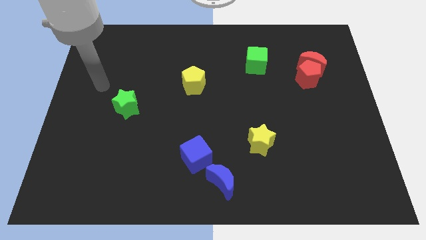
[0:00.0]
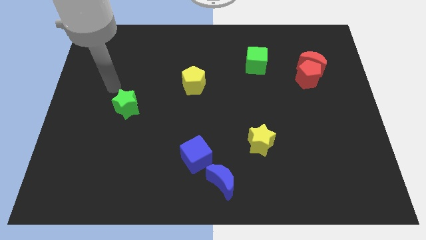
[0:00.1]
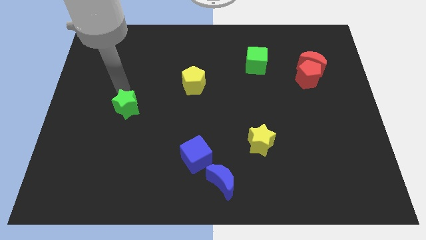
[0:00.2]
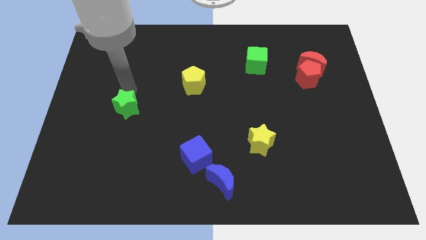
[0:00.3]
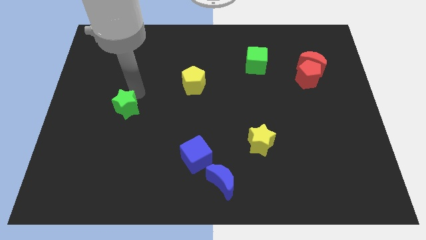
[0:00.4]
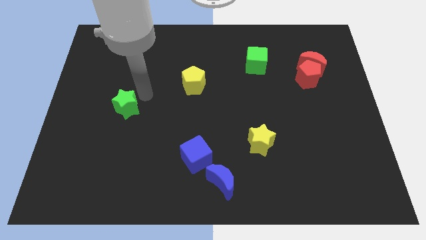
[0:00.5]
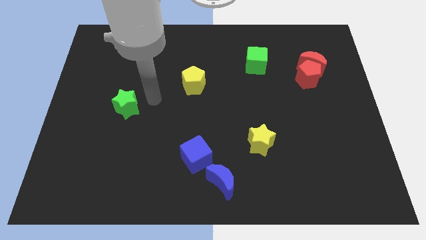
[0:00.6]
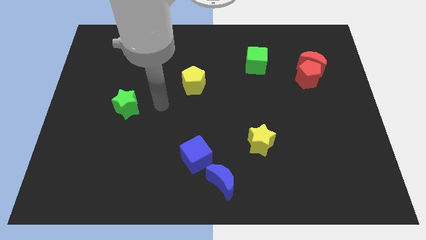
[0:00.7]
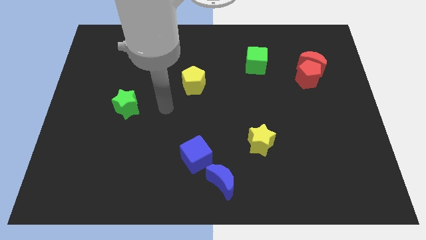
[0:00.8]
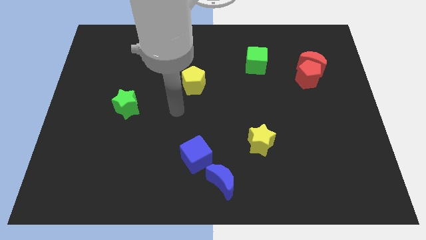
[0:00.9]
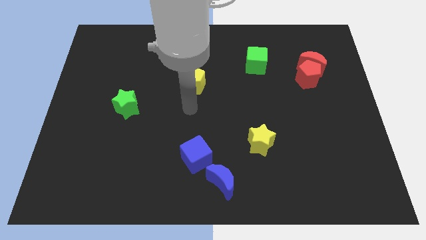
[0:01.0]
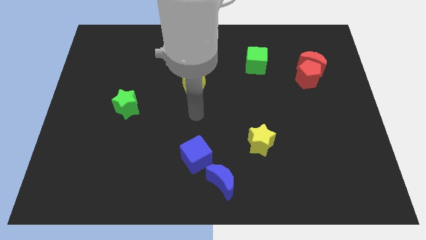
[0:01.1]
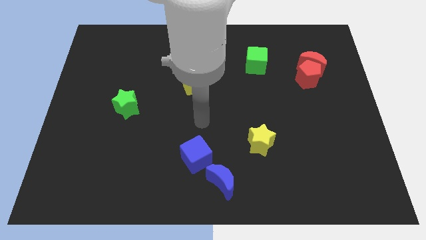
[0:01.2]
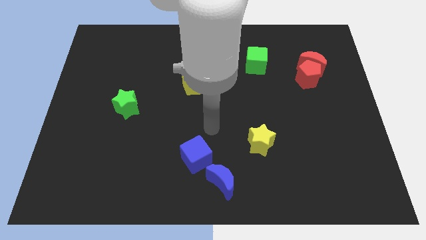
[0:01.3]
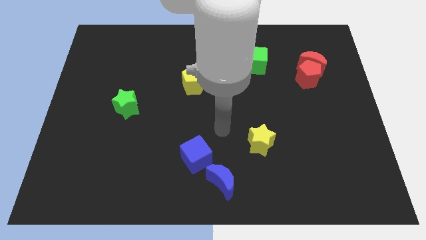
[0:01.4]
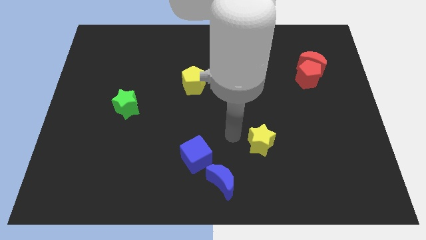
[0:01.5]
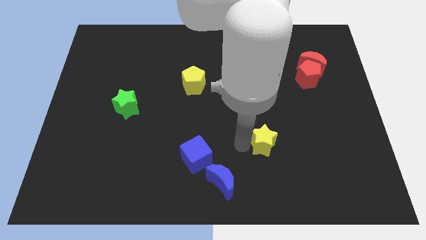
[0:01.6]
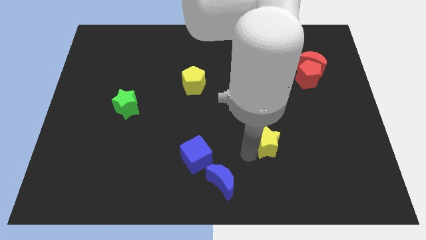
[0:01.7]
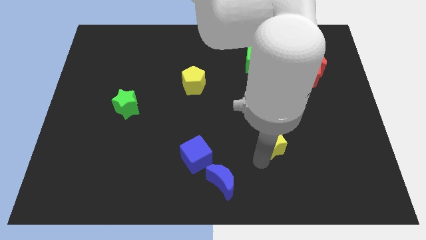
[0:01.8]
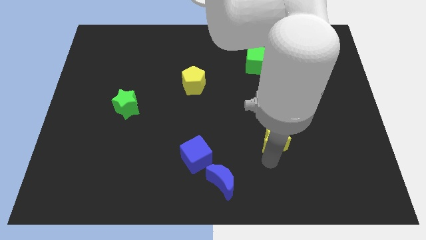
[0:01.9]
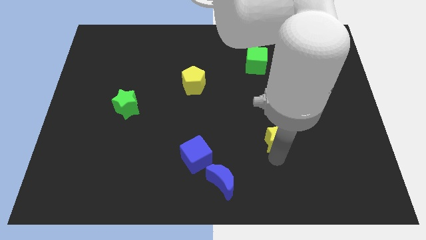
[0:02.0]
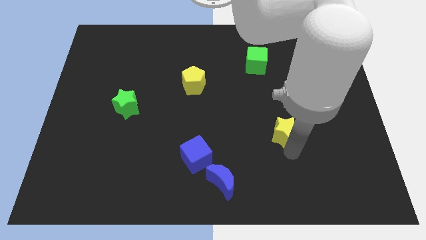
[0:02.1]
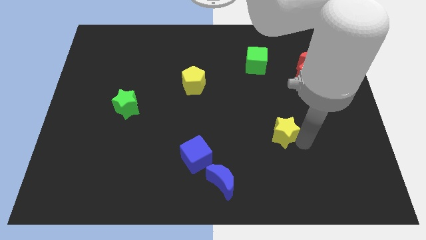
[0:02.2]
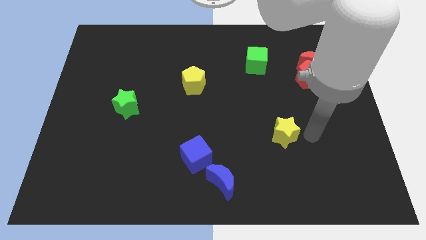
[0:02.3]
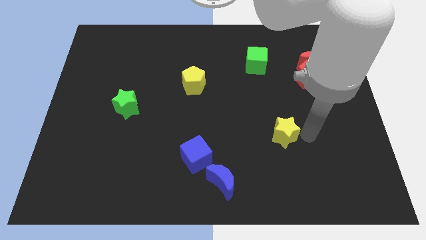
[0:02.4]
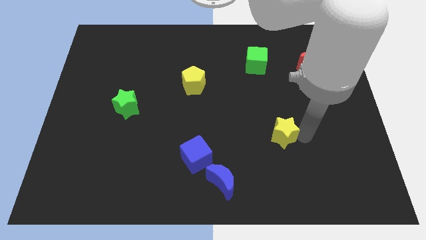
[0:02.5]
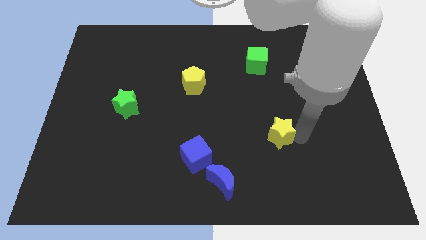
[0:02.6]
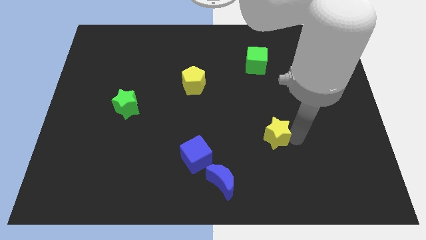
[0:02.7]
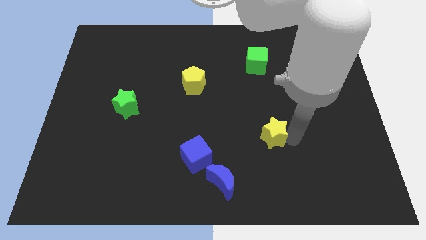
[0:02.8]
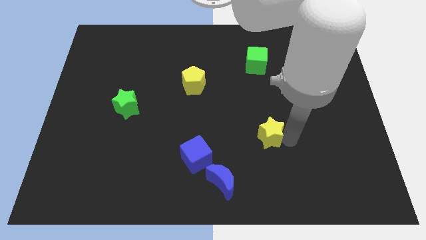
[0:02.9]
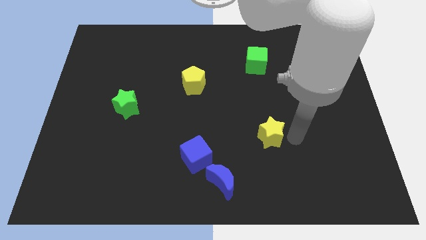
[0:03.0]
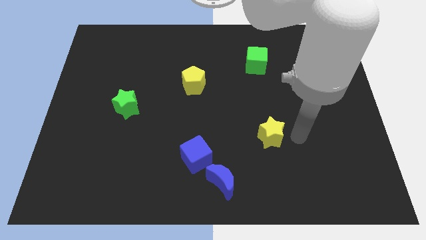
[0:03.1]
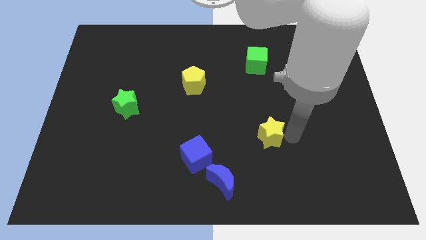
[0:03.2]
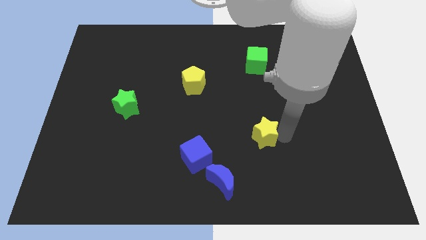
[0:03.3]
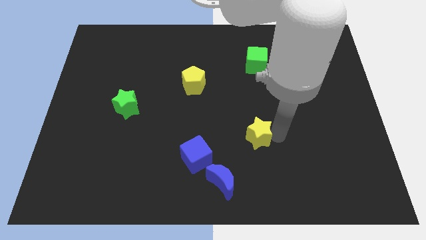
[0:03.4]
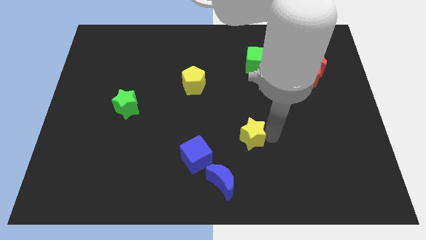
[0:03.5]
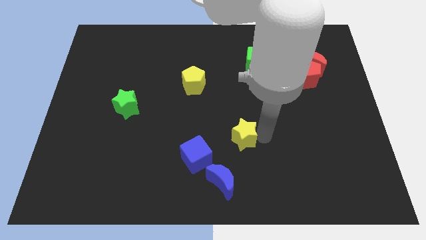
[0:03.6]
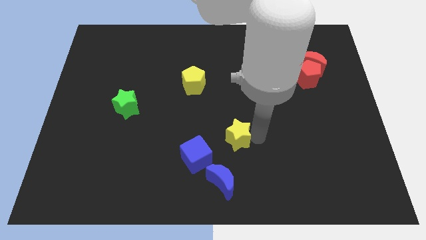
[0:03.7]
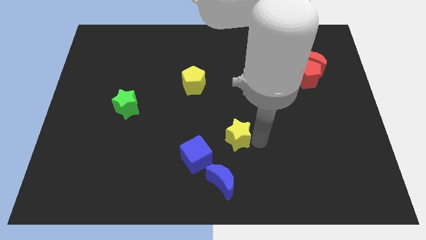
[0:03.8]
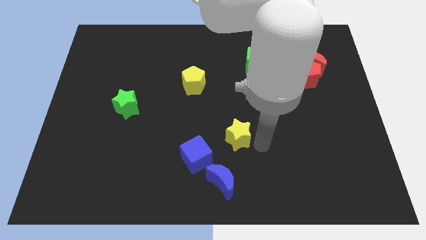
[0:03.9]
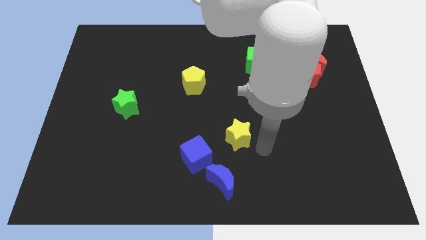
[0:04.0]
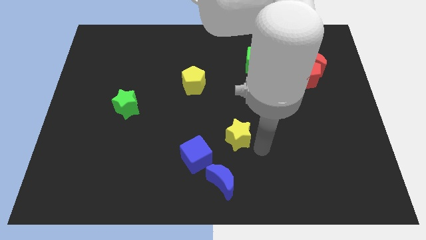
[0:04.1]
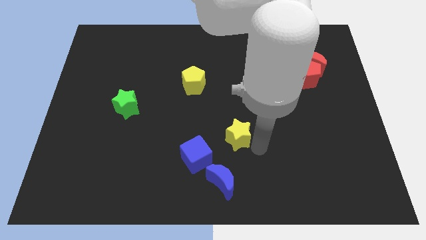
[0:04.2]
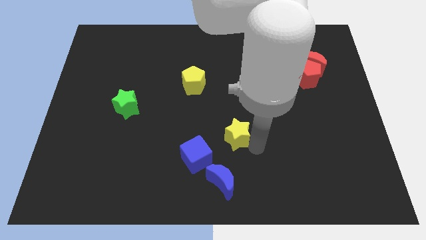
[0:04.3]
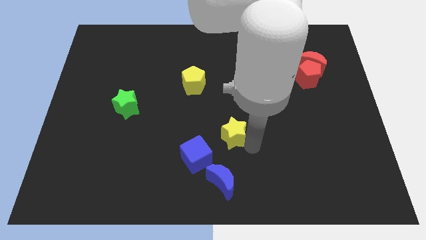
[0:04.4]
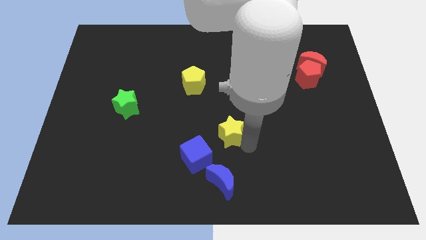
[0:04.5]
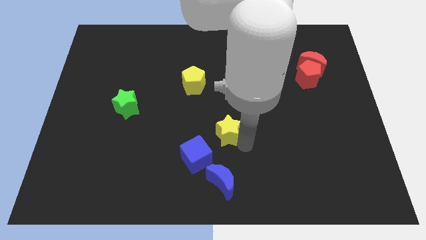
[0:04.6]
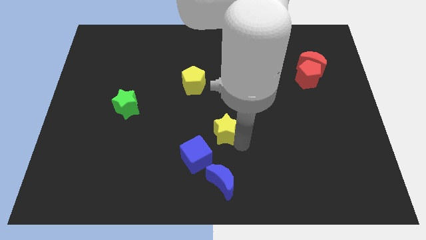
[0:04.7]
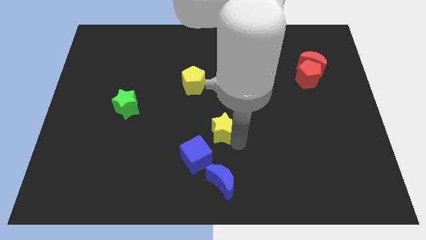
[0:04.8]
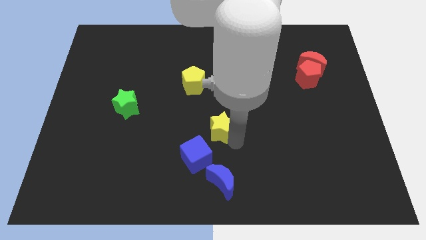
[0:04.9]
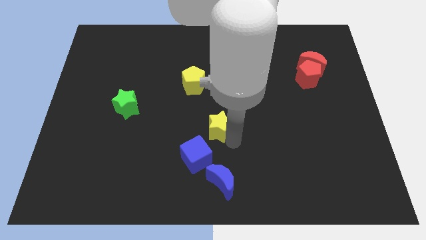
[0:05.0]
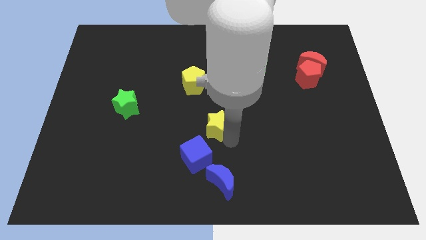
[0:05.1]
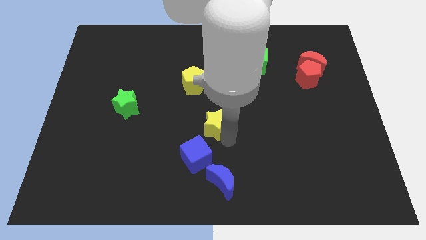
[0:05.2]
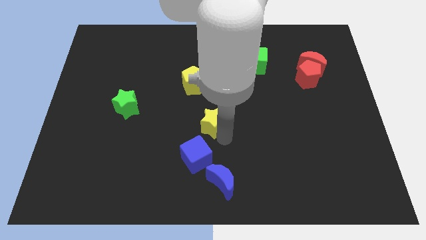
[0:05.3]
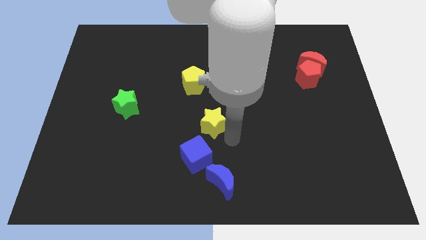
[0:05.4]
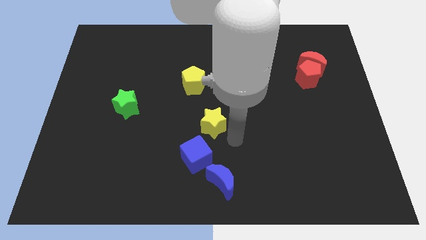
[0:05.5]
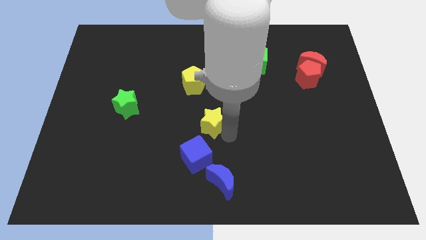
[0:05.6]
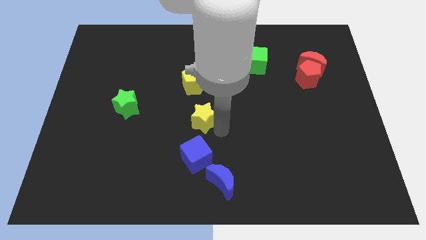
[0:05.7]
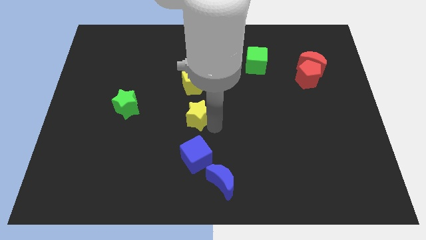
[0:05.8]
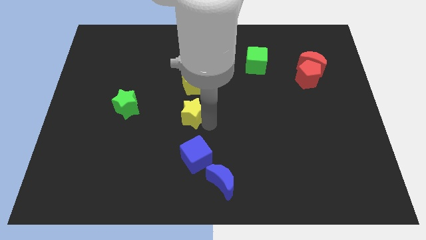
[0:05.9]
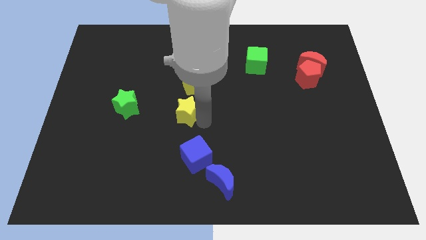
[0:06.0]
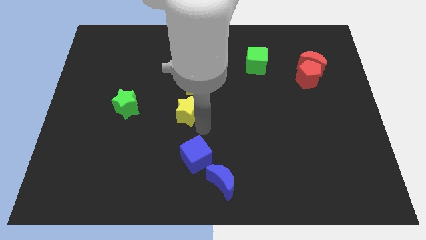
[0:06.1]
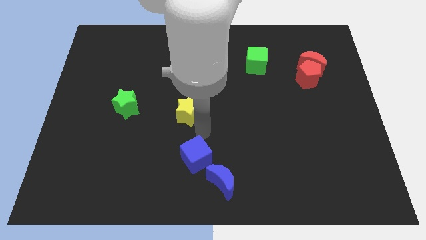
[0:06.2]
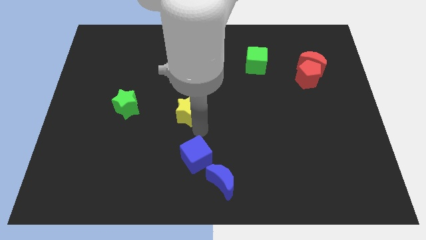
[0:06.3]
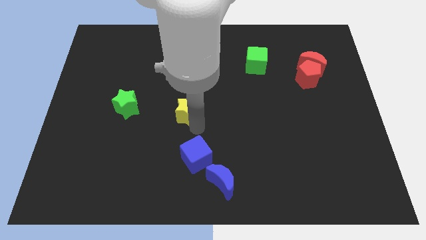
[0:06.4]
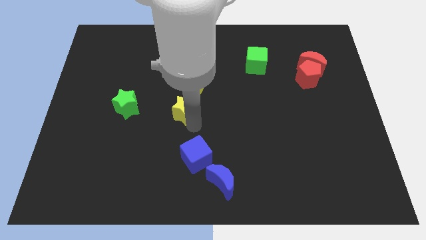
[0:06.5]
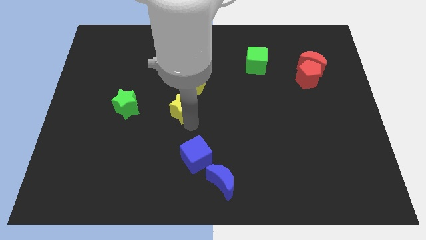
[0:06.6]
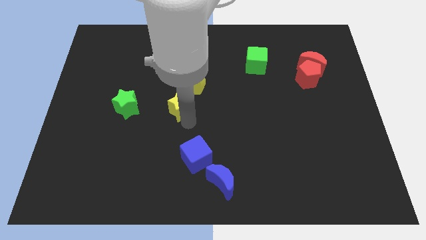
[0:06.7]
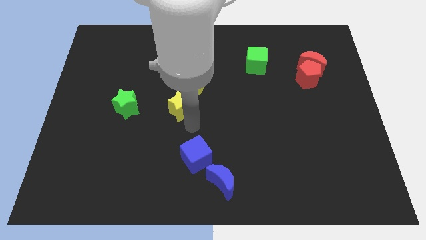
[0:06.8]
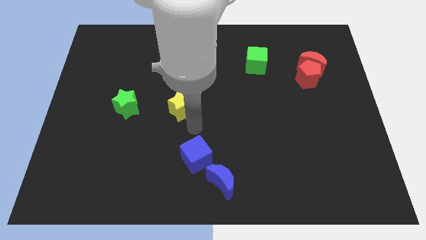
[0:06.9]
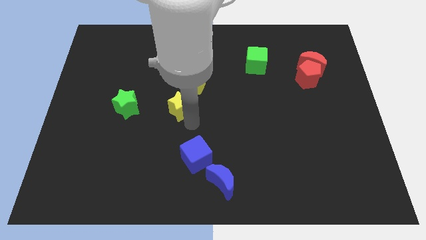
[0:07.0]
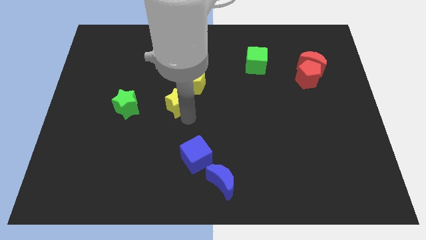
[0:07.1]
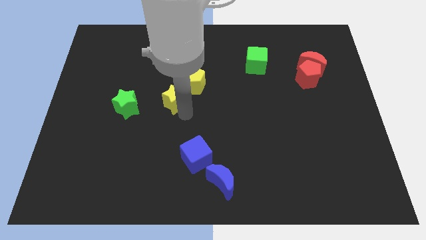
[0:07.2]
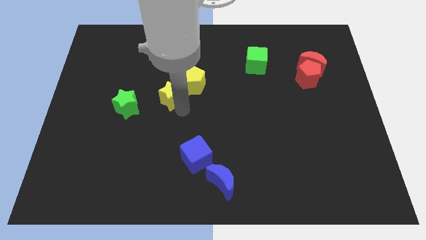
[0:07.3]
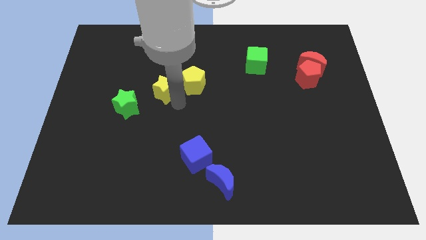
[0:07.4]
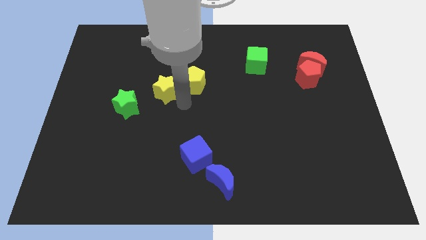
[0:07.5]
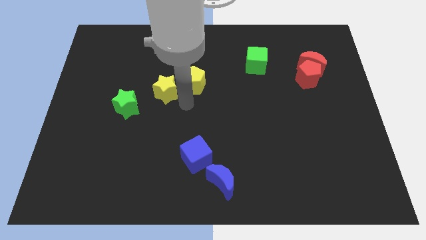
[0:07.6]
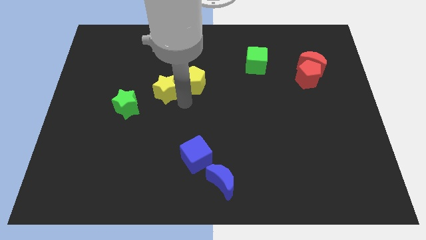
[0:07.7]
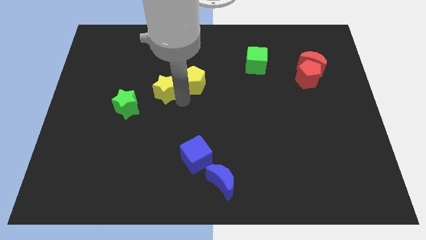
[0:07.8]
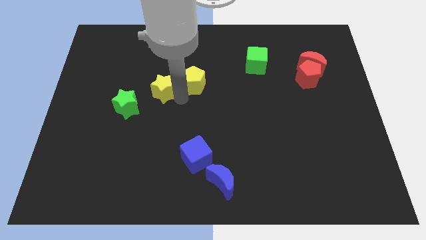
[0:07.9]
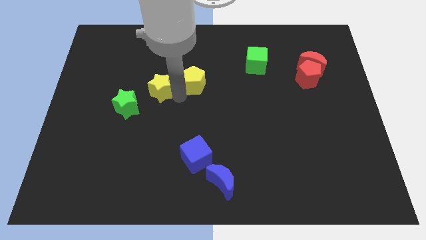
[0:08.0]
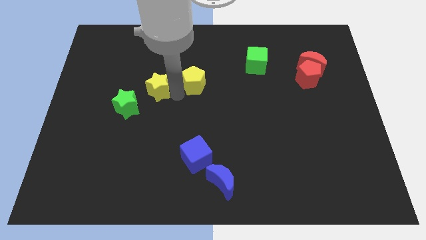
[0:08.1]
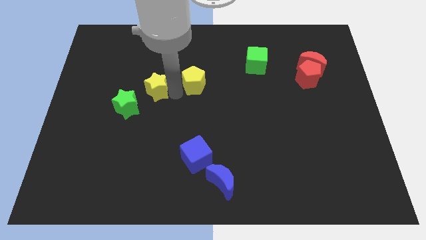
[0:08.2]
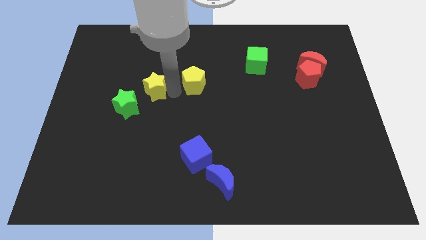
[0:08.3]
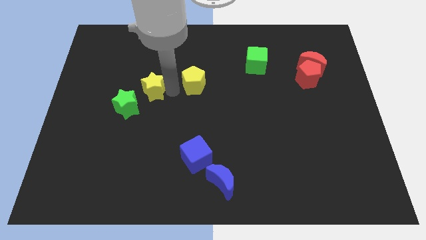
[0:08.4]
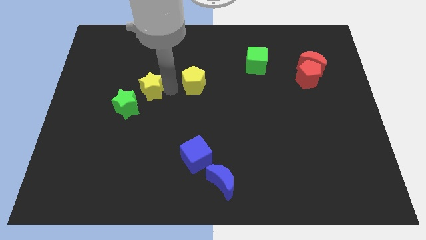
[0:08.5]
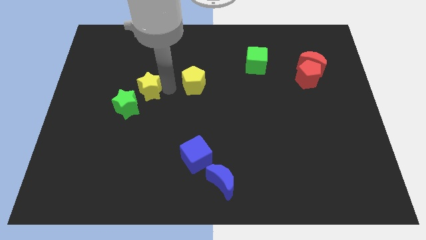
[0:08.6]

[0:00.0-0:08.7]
push the yellow star to the top of the green star
